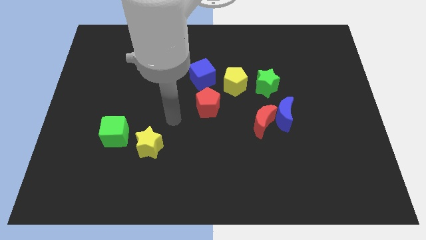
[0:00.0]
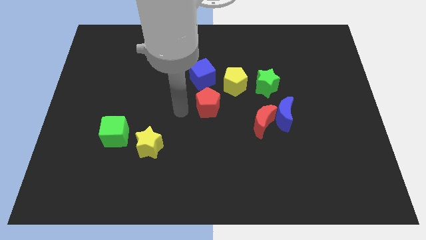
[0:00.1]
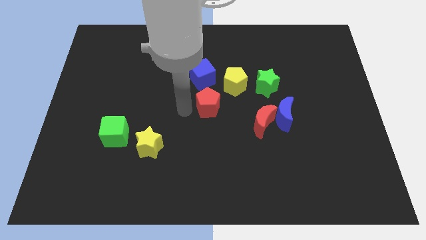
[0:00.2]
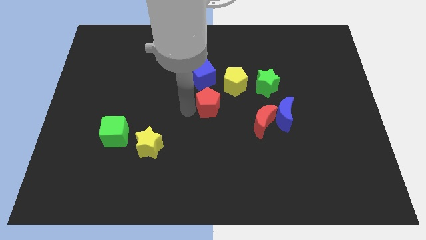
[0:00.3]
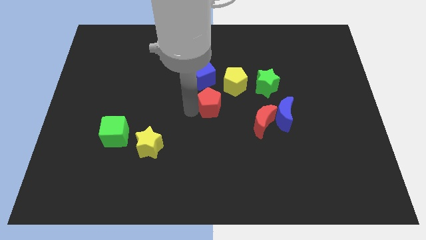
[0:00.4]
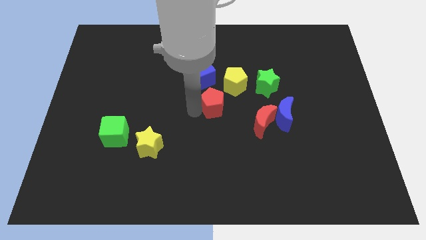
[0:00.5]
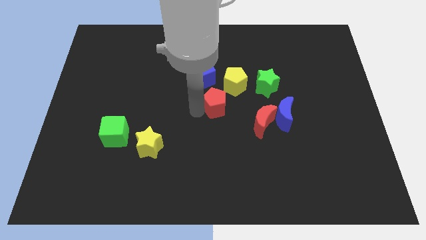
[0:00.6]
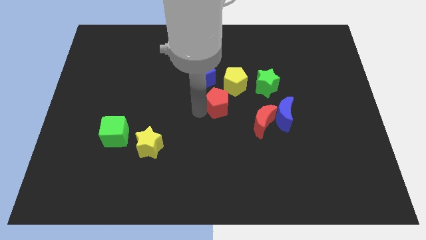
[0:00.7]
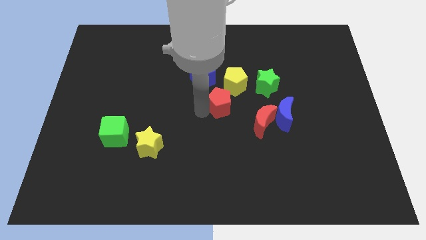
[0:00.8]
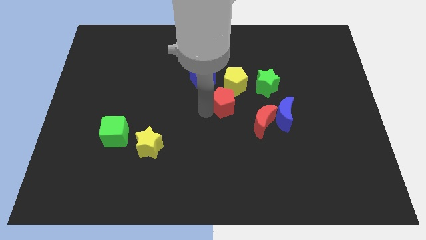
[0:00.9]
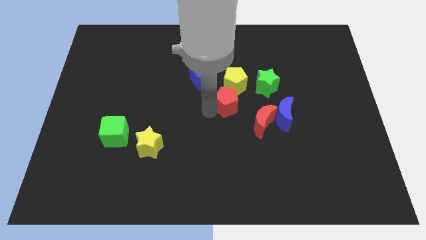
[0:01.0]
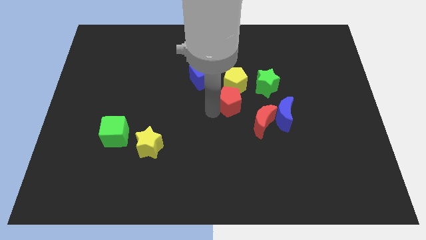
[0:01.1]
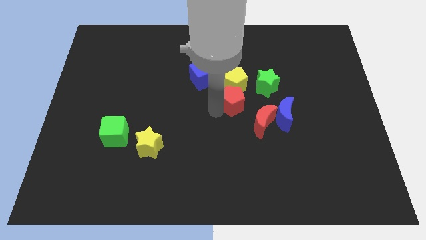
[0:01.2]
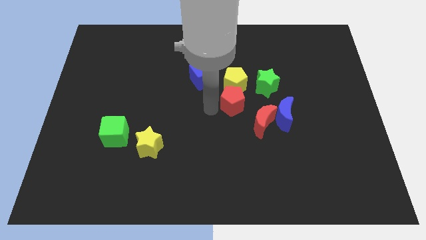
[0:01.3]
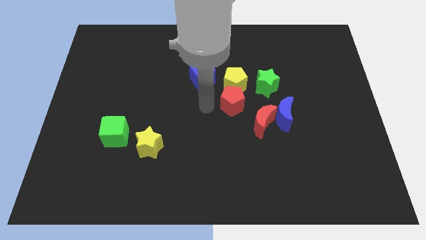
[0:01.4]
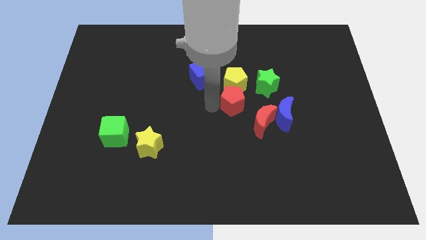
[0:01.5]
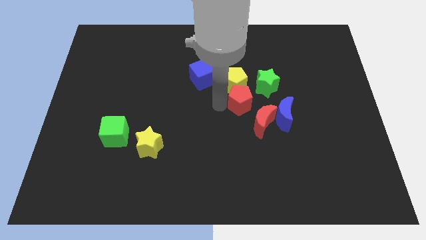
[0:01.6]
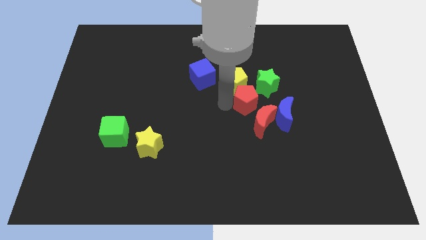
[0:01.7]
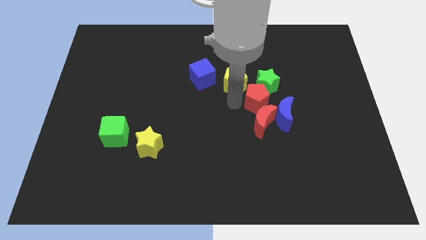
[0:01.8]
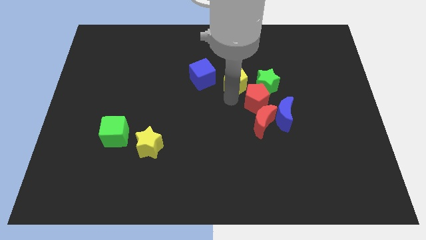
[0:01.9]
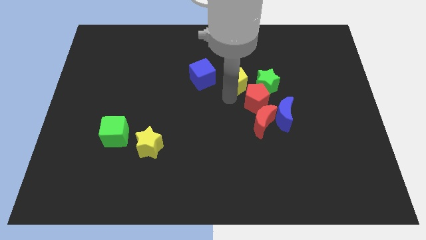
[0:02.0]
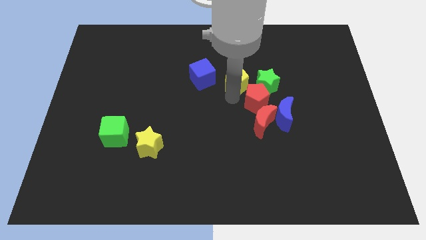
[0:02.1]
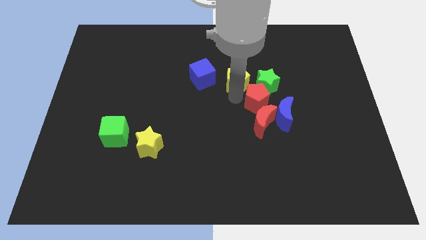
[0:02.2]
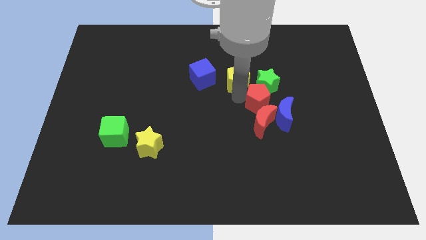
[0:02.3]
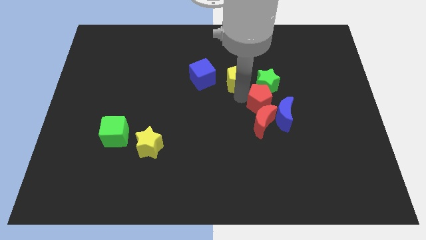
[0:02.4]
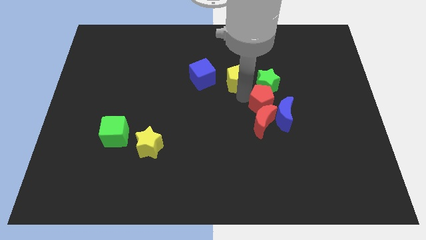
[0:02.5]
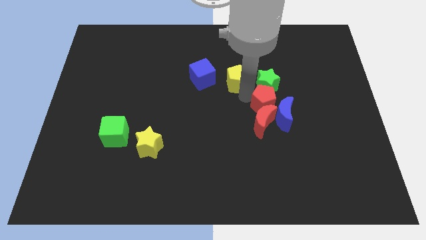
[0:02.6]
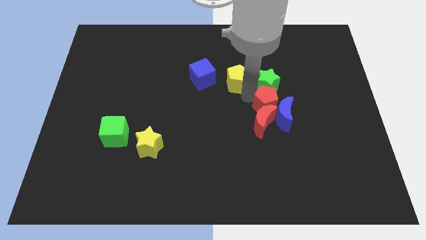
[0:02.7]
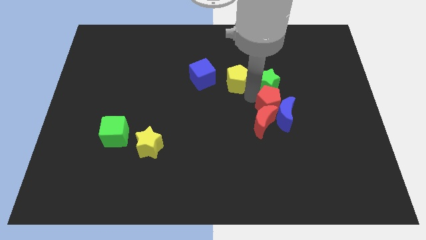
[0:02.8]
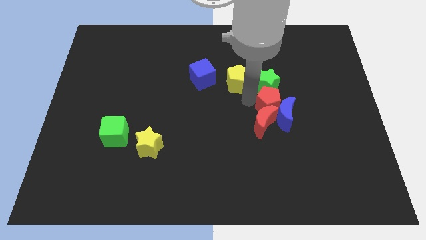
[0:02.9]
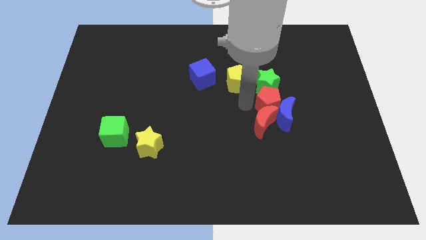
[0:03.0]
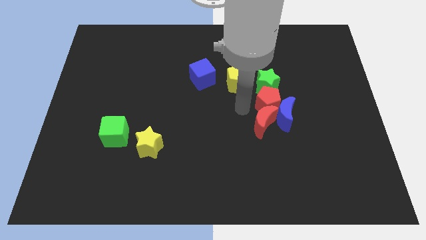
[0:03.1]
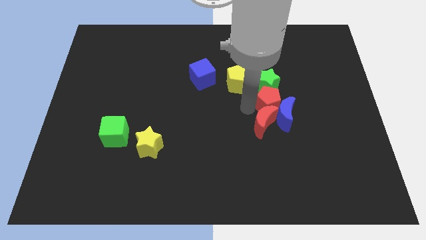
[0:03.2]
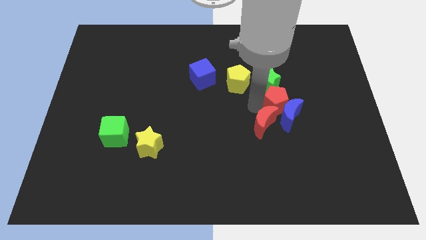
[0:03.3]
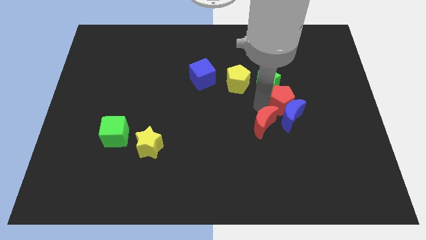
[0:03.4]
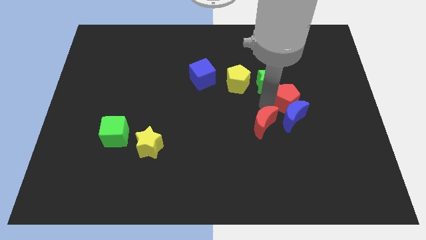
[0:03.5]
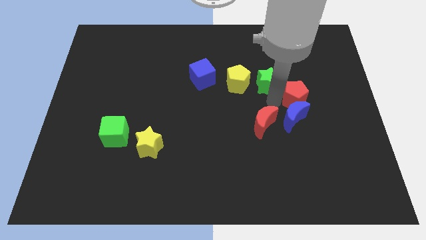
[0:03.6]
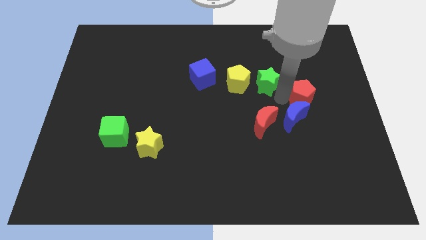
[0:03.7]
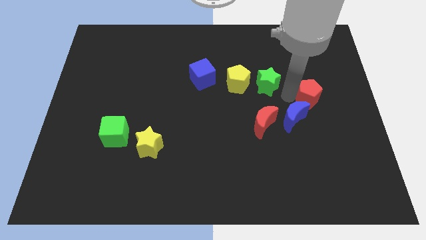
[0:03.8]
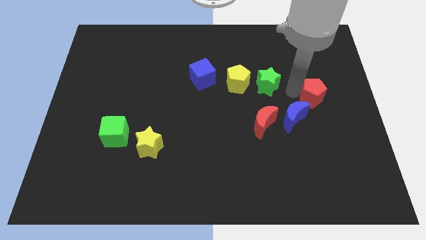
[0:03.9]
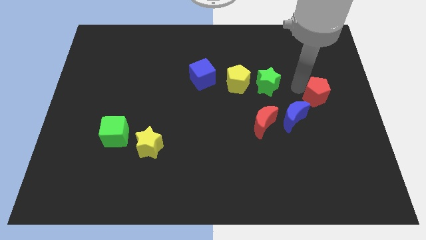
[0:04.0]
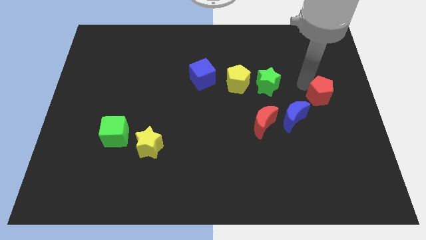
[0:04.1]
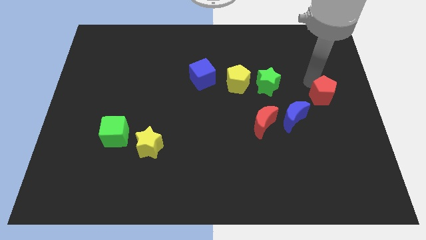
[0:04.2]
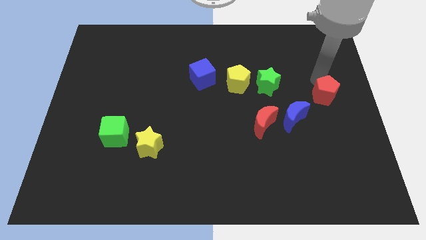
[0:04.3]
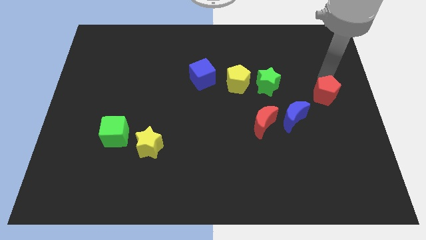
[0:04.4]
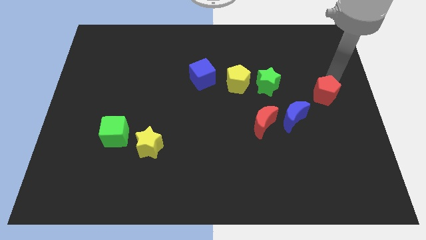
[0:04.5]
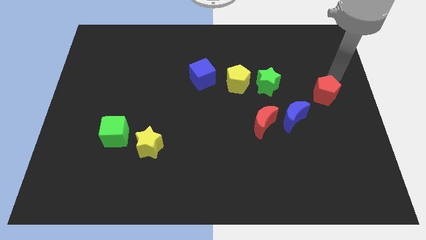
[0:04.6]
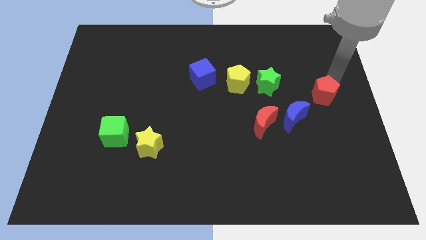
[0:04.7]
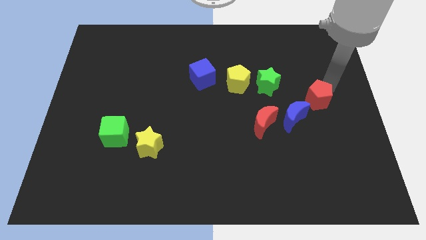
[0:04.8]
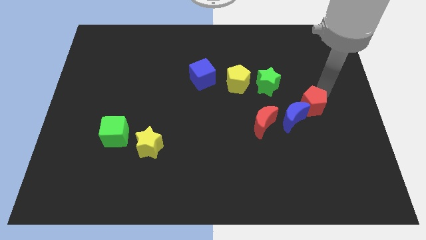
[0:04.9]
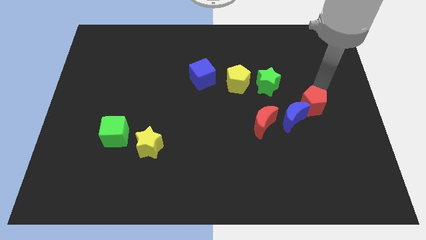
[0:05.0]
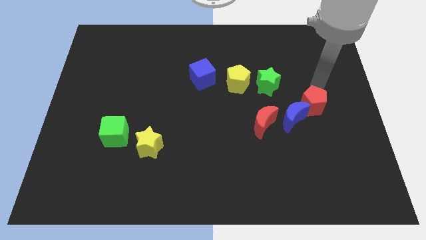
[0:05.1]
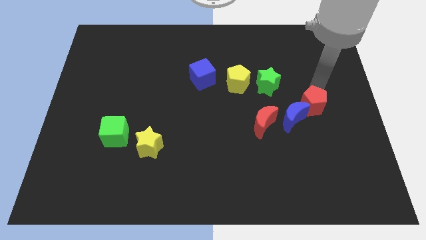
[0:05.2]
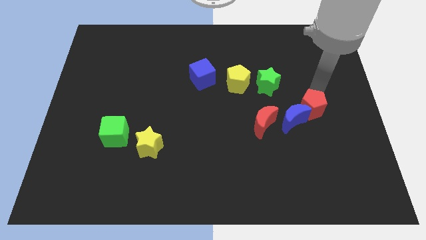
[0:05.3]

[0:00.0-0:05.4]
move the red pentagon just right of the red moon
